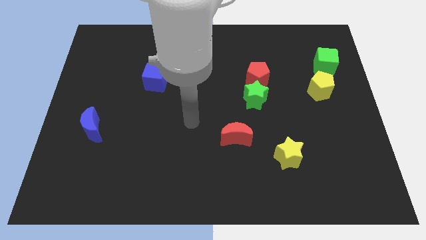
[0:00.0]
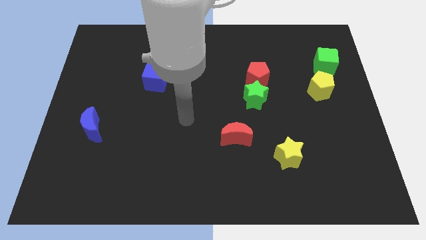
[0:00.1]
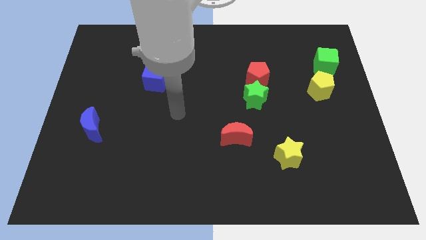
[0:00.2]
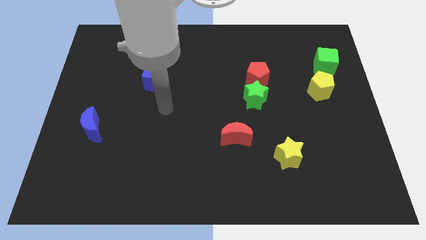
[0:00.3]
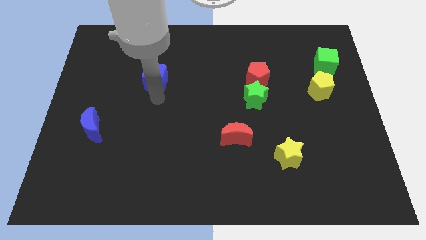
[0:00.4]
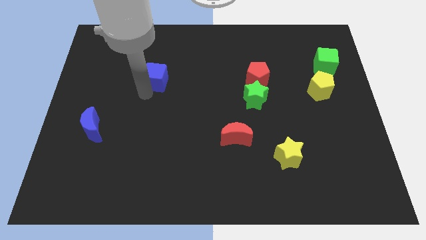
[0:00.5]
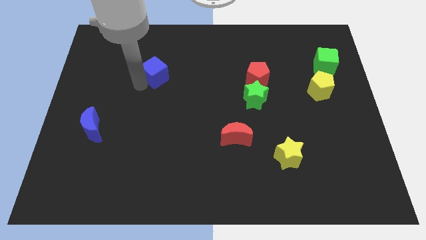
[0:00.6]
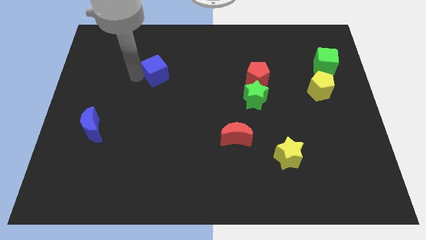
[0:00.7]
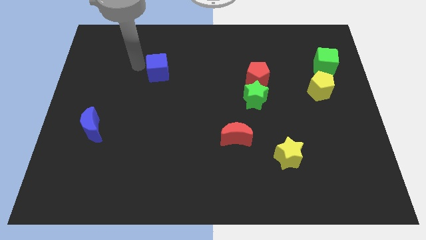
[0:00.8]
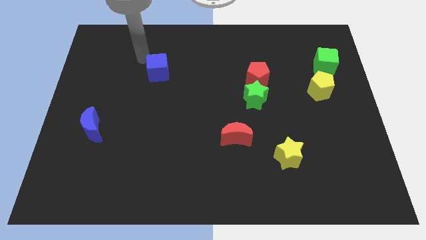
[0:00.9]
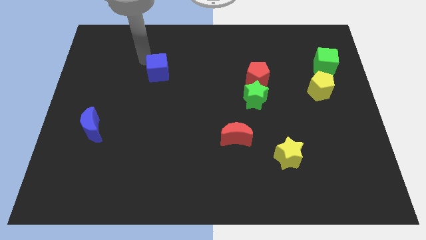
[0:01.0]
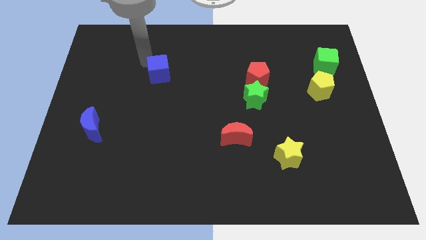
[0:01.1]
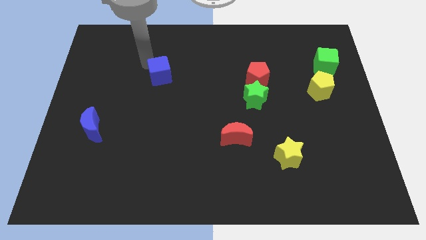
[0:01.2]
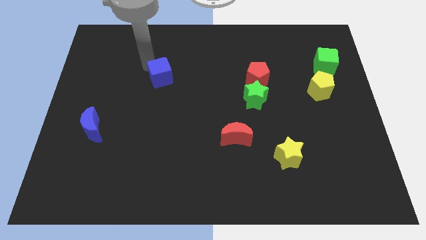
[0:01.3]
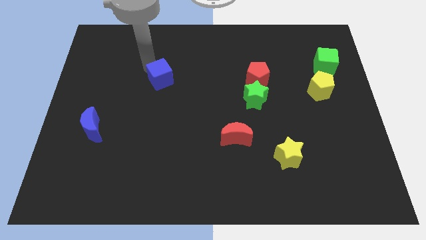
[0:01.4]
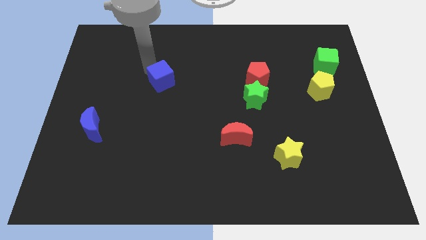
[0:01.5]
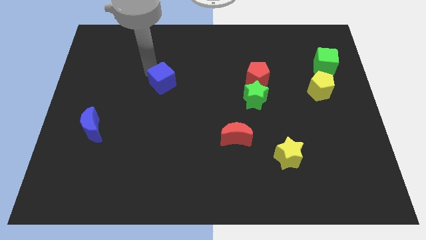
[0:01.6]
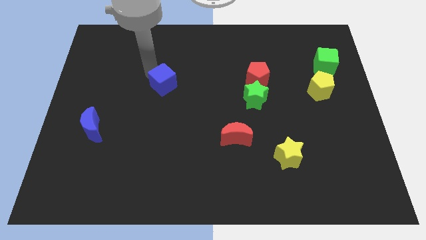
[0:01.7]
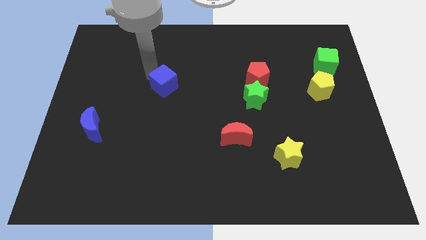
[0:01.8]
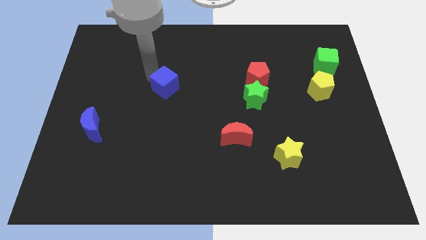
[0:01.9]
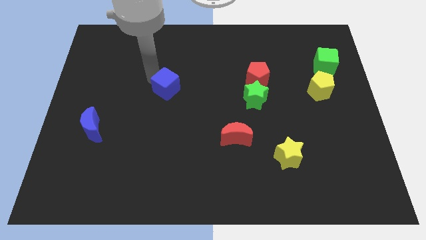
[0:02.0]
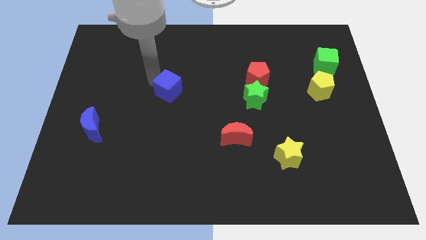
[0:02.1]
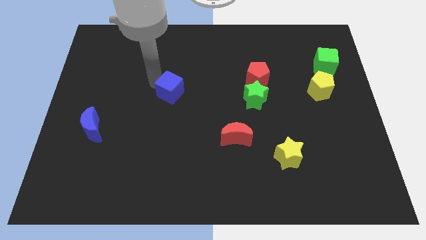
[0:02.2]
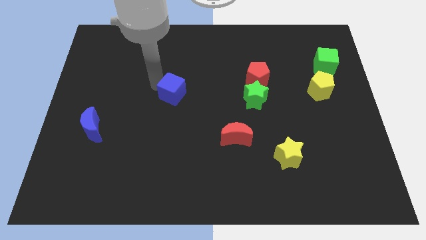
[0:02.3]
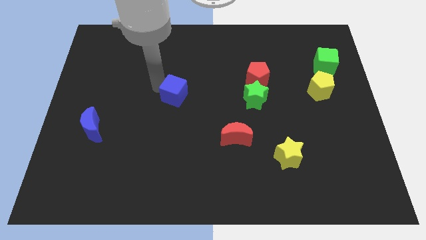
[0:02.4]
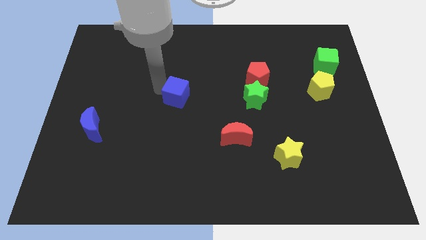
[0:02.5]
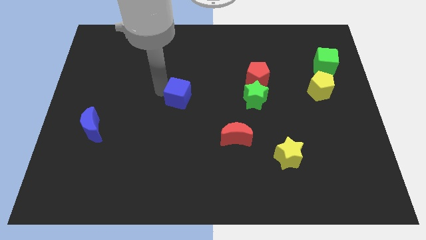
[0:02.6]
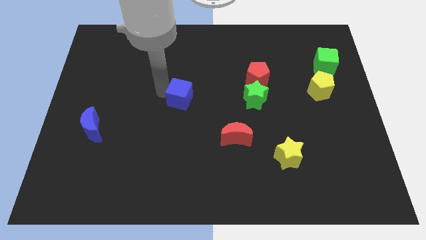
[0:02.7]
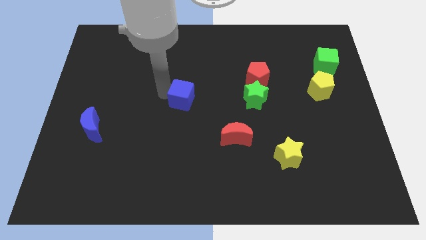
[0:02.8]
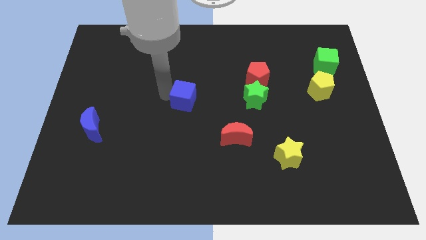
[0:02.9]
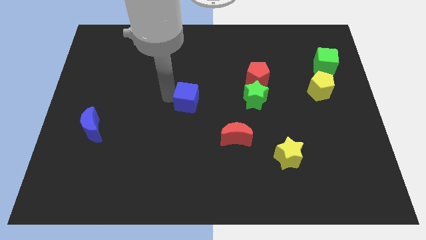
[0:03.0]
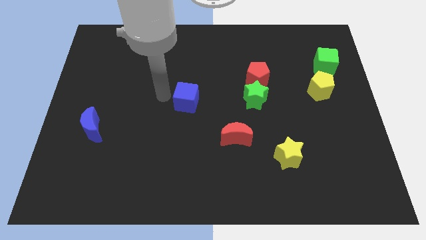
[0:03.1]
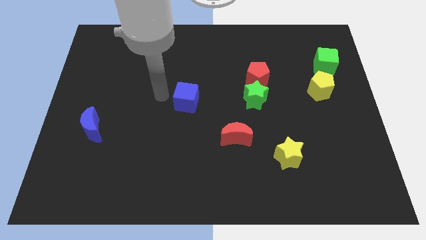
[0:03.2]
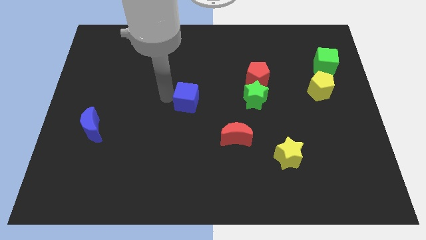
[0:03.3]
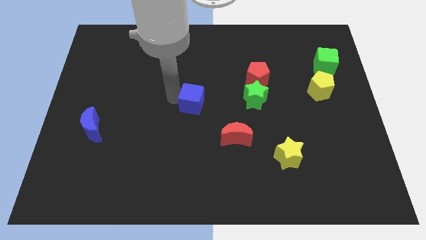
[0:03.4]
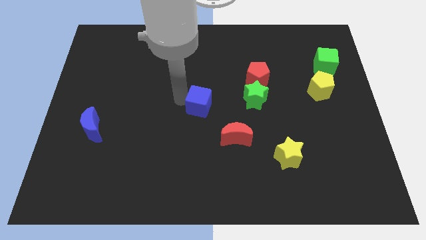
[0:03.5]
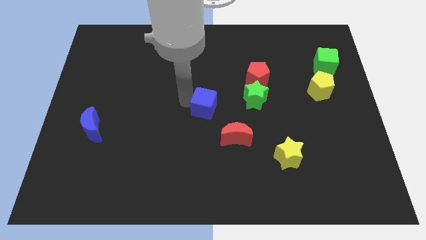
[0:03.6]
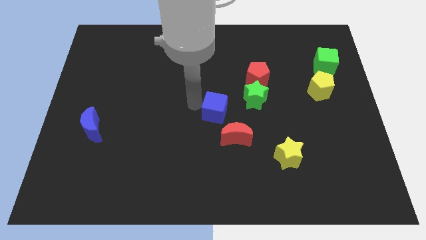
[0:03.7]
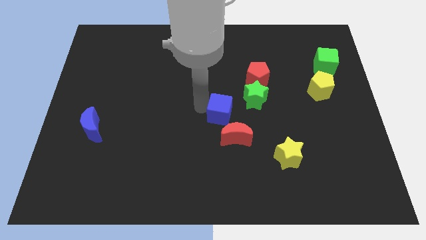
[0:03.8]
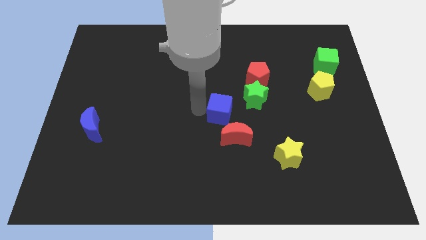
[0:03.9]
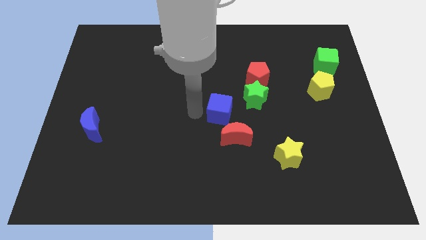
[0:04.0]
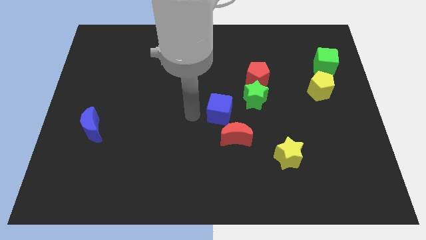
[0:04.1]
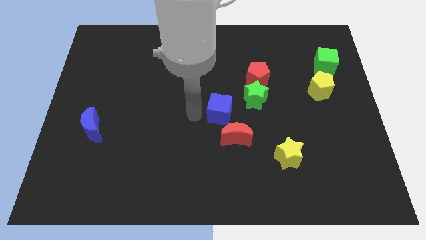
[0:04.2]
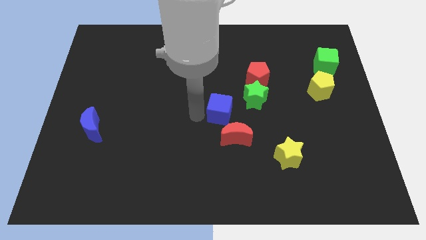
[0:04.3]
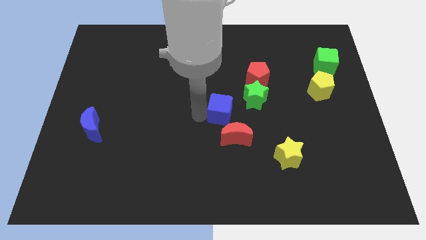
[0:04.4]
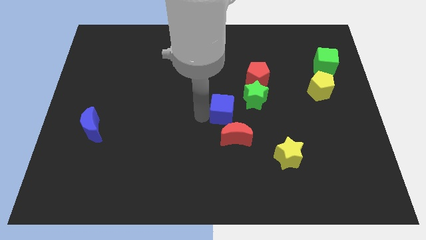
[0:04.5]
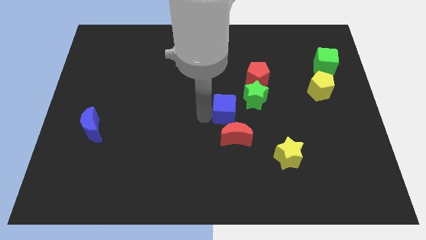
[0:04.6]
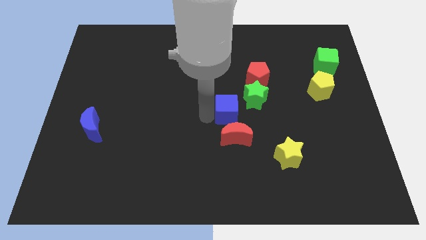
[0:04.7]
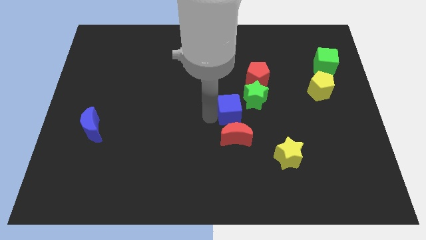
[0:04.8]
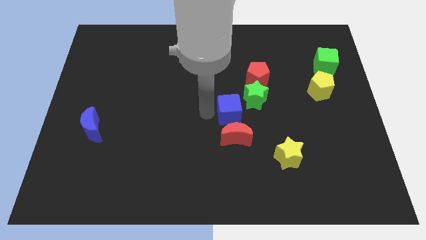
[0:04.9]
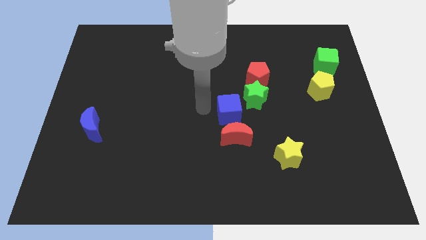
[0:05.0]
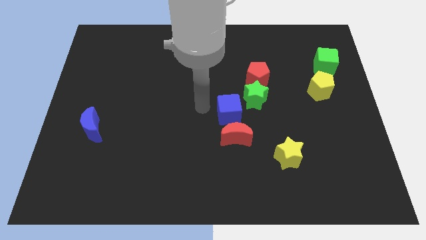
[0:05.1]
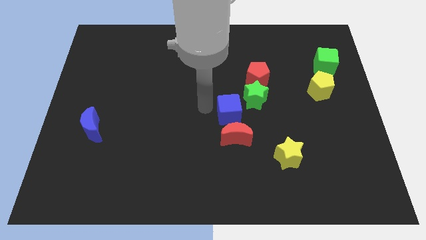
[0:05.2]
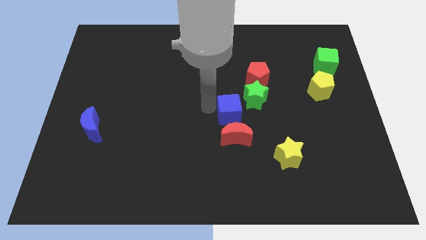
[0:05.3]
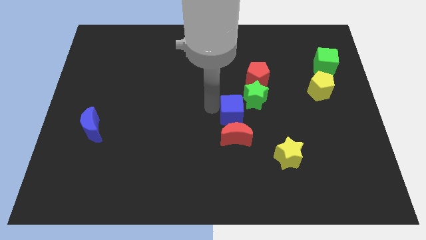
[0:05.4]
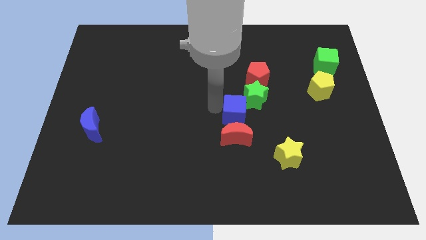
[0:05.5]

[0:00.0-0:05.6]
slide the blue cube to the top right side of the red moon

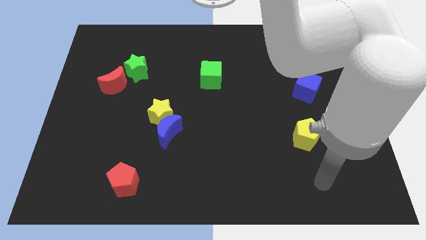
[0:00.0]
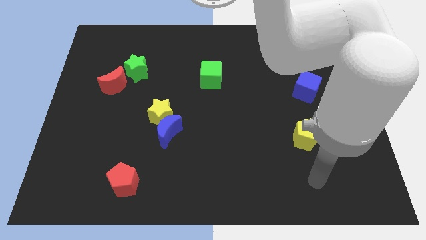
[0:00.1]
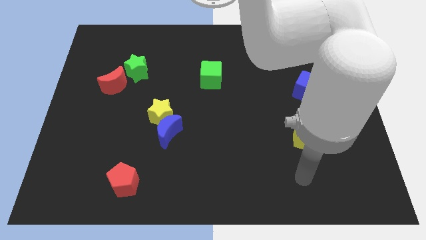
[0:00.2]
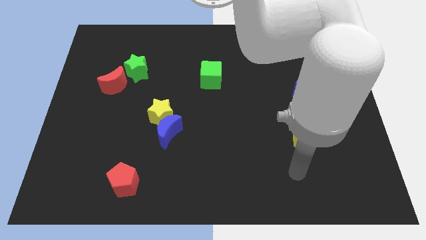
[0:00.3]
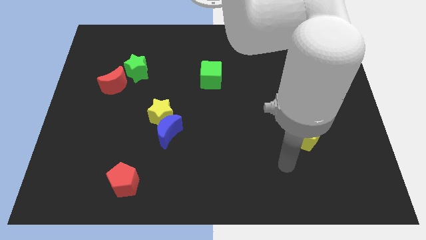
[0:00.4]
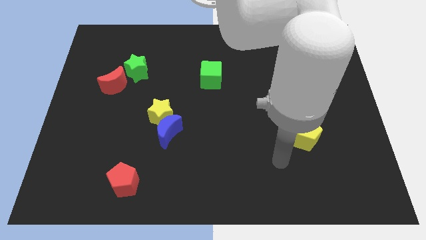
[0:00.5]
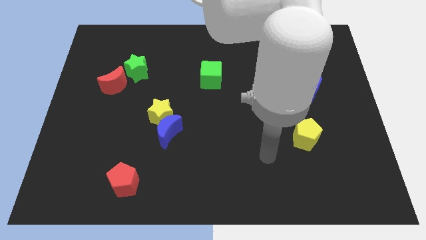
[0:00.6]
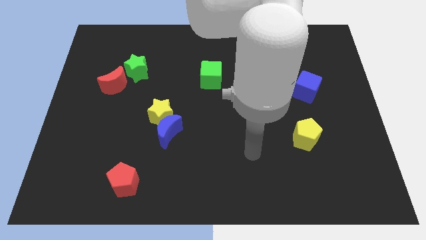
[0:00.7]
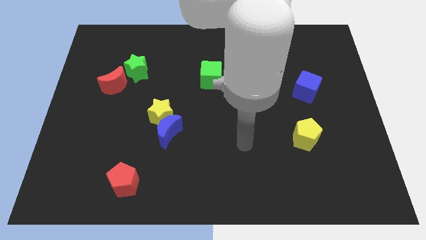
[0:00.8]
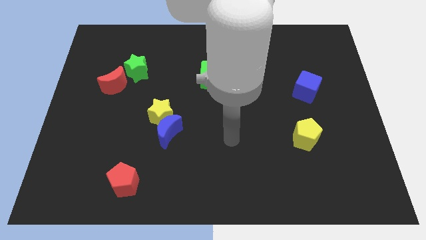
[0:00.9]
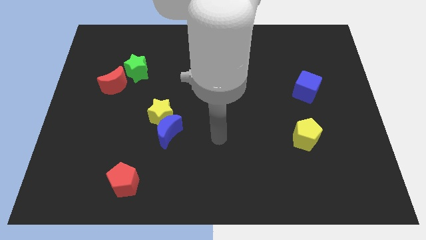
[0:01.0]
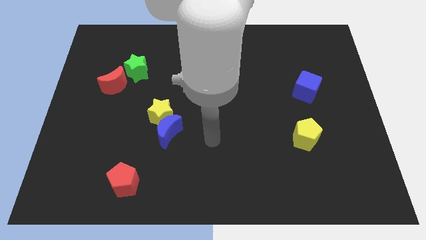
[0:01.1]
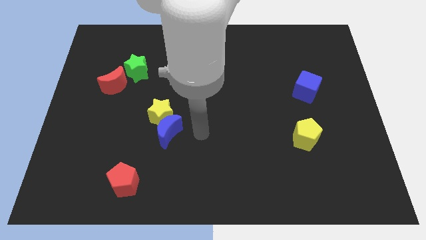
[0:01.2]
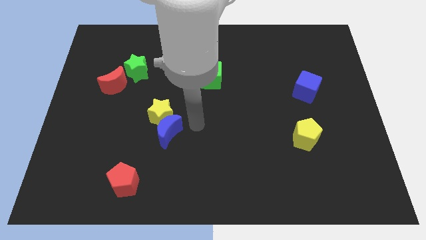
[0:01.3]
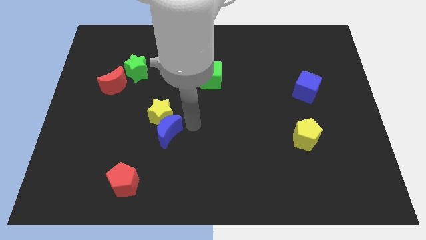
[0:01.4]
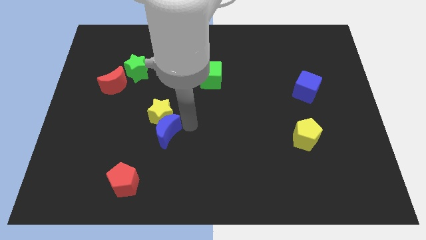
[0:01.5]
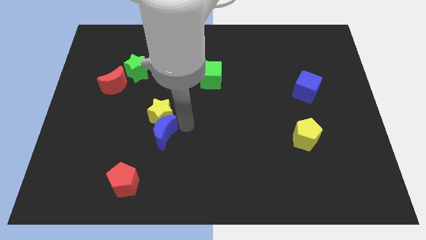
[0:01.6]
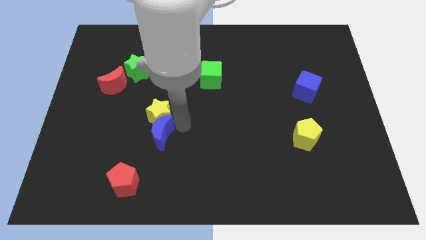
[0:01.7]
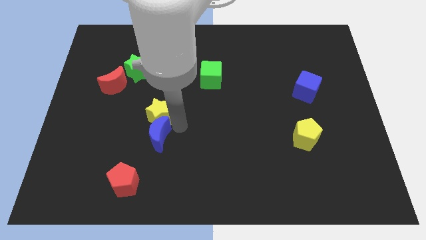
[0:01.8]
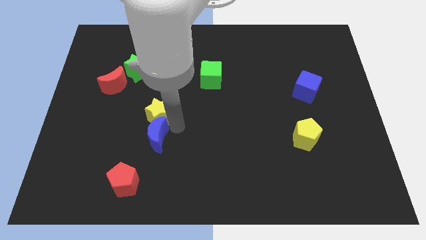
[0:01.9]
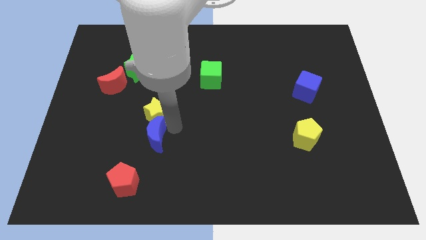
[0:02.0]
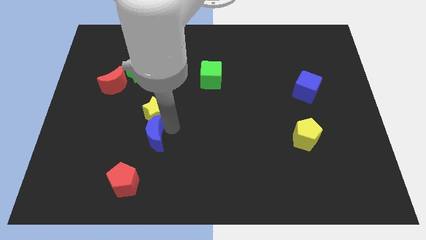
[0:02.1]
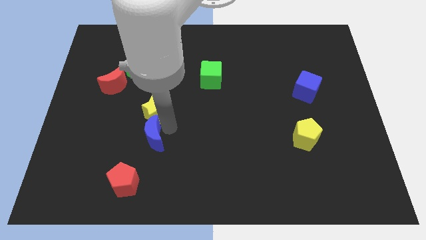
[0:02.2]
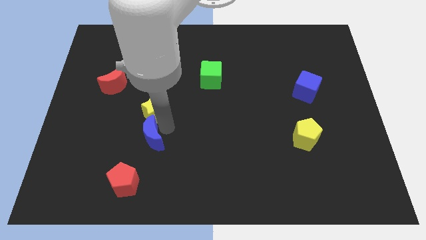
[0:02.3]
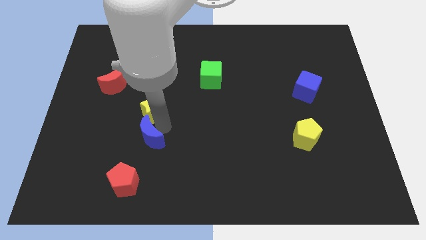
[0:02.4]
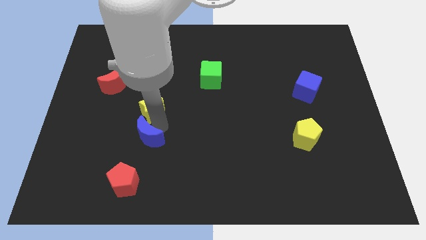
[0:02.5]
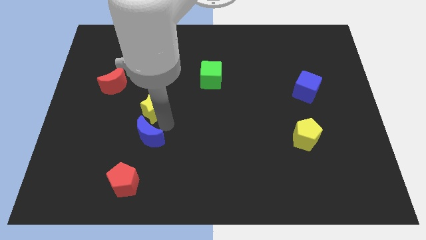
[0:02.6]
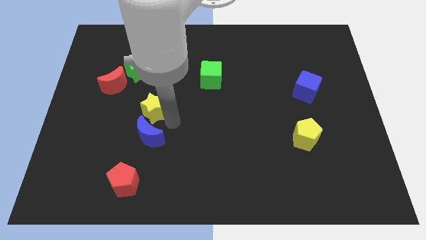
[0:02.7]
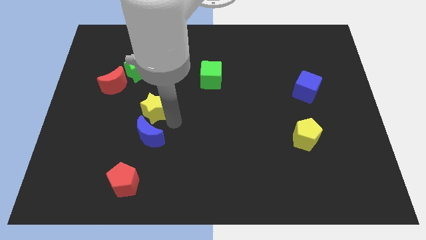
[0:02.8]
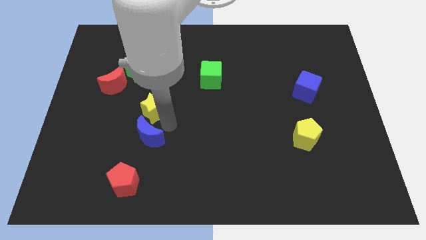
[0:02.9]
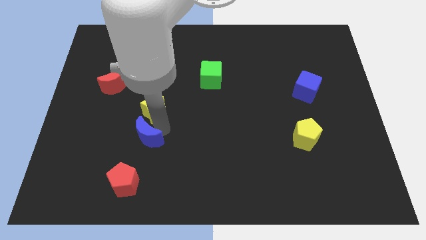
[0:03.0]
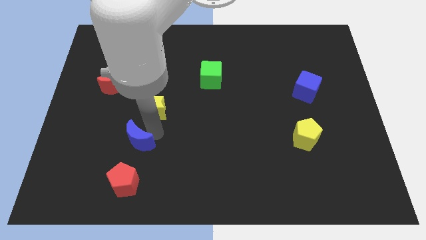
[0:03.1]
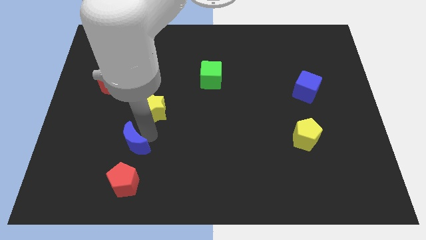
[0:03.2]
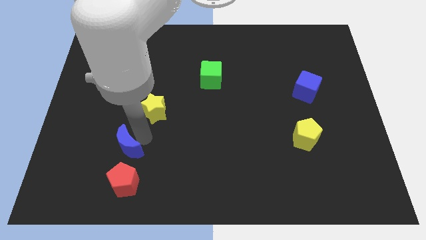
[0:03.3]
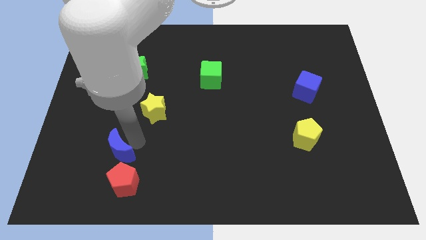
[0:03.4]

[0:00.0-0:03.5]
push the blue moon to the top left side of the red pentagon
